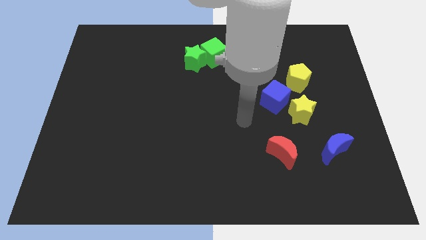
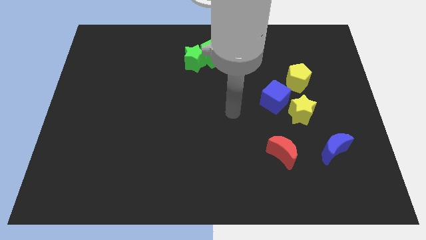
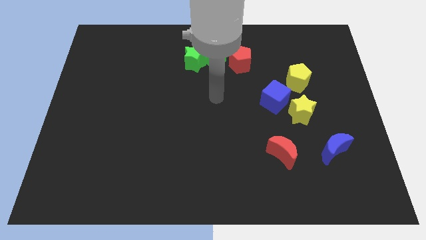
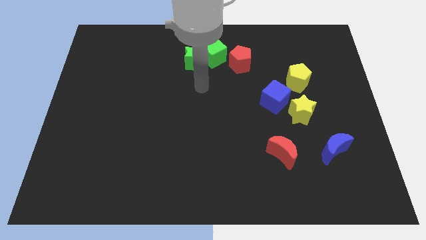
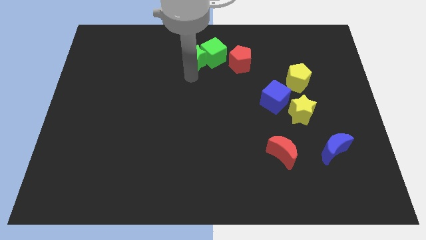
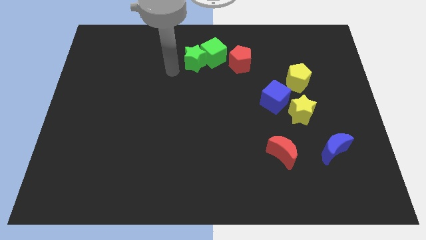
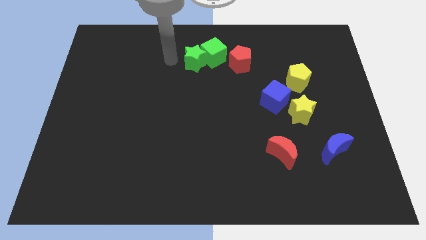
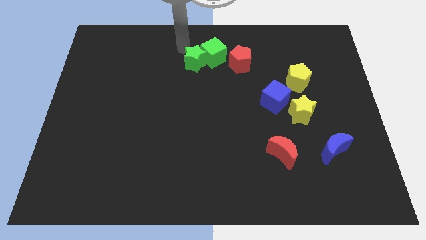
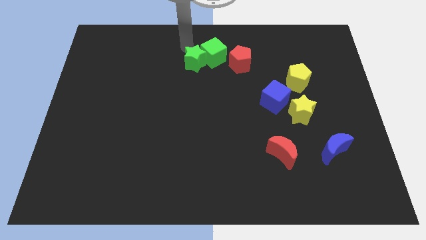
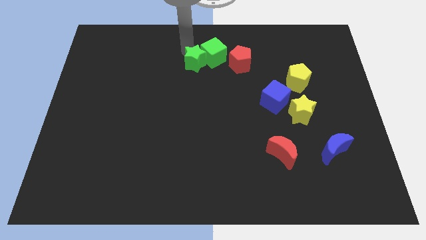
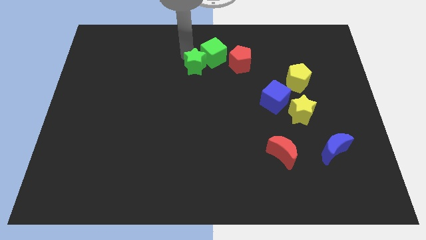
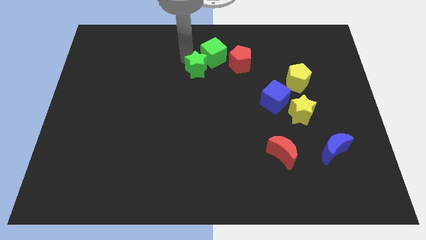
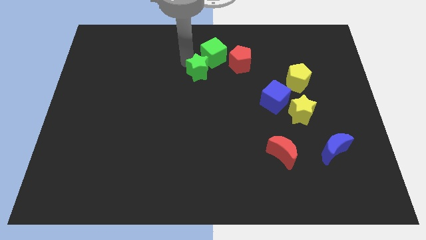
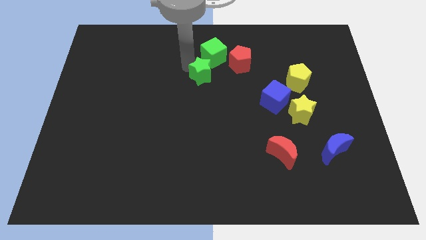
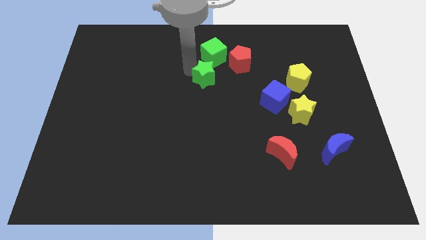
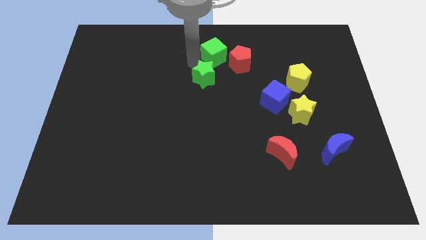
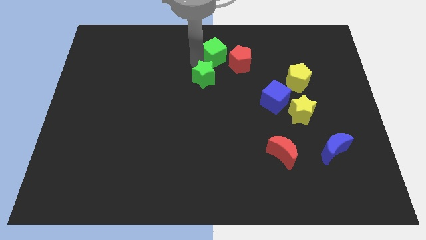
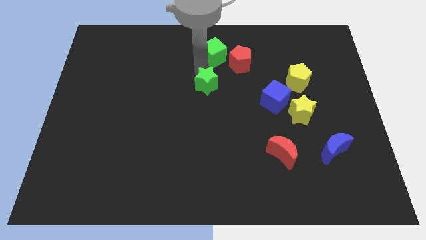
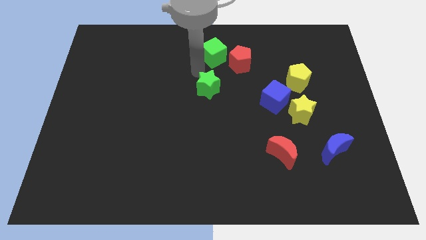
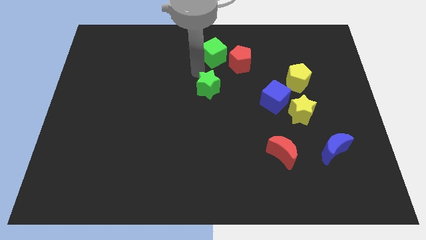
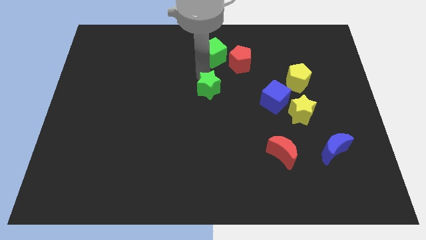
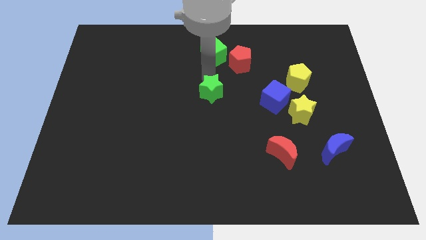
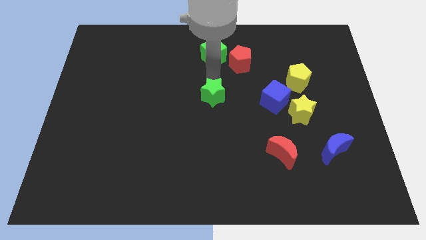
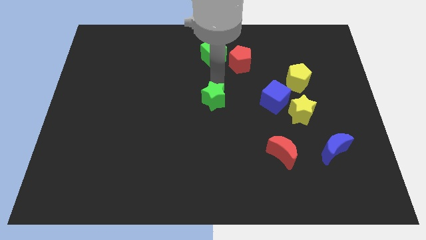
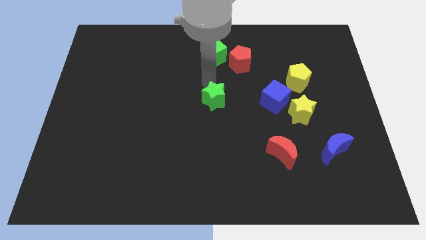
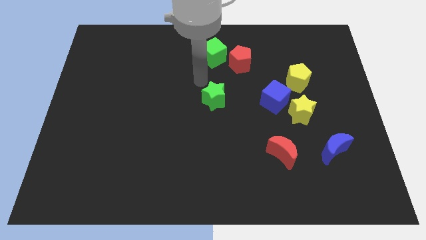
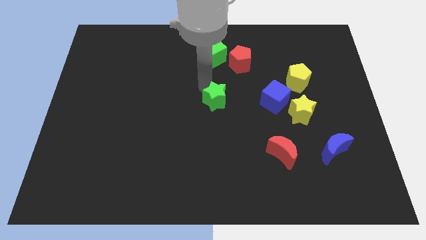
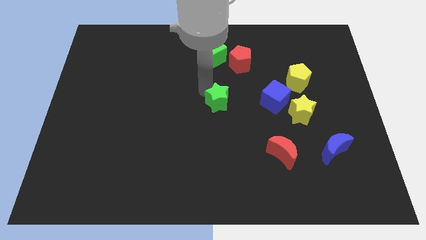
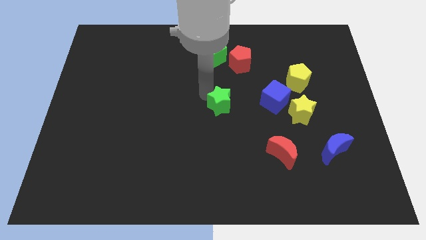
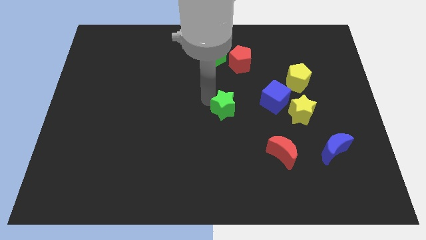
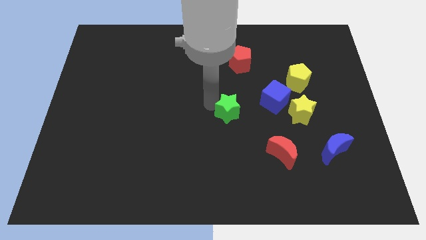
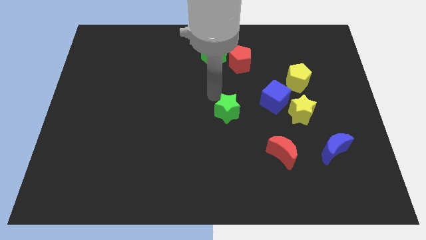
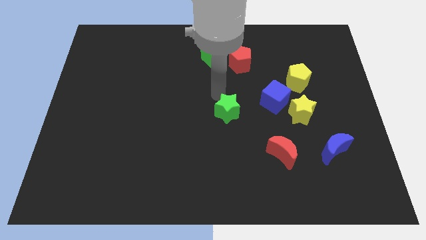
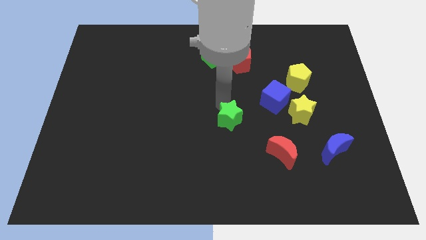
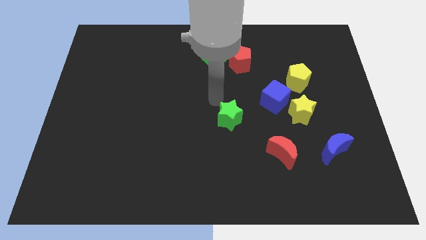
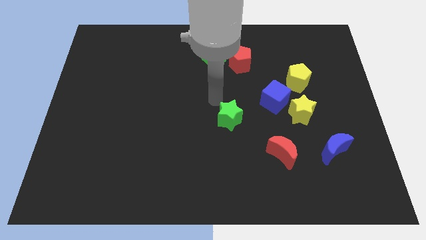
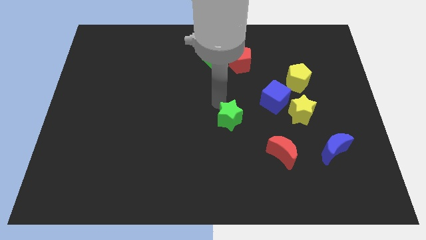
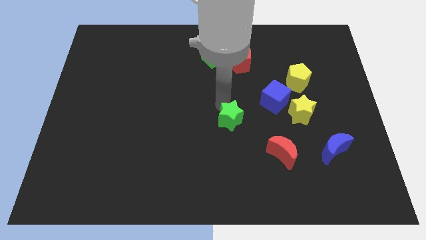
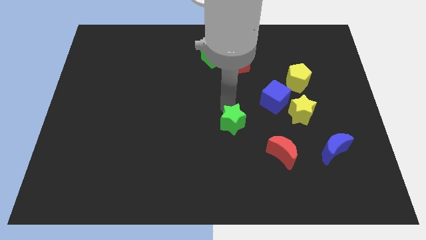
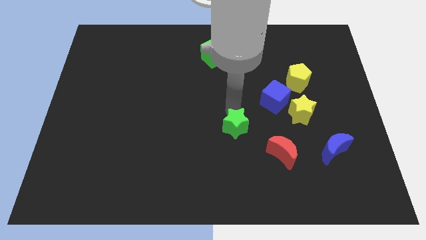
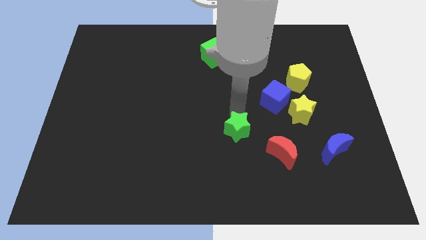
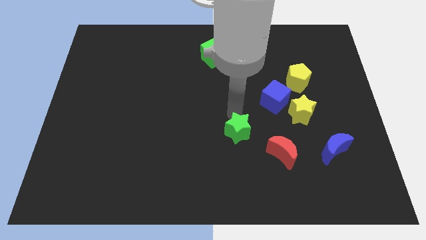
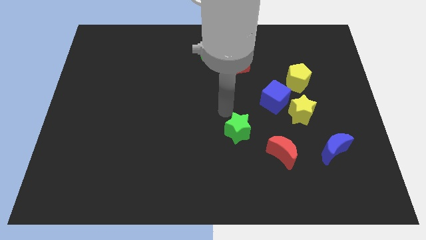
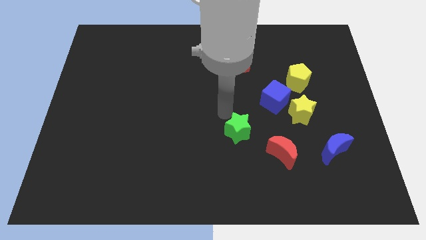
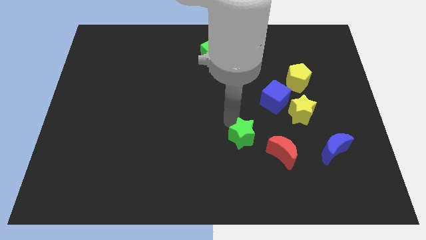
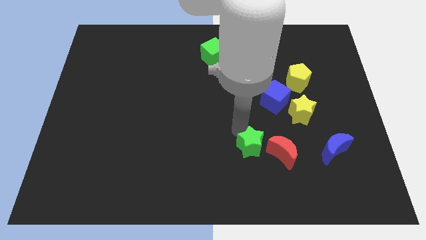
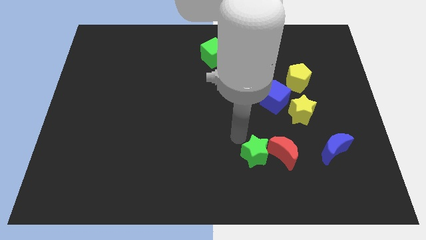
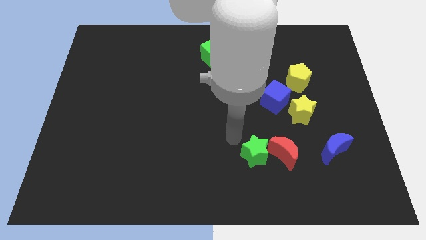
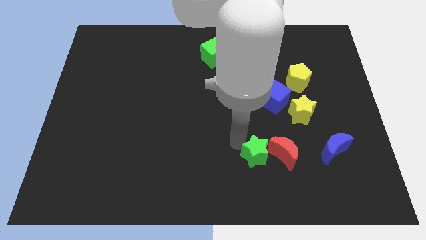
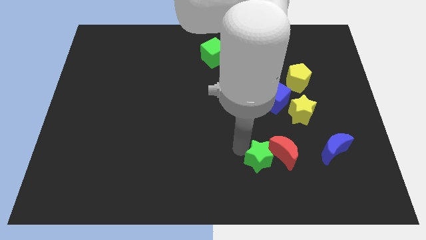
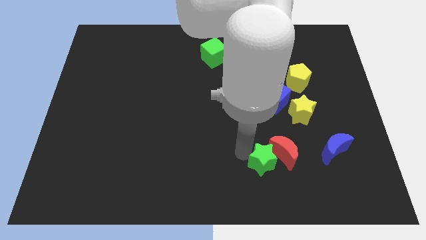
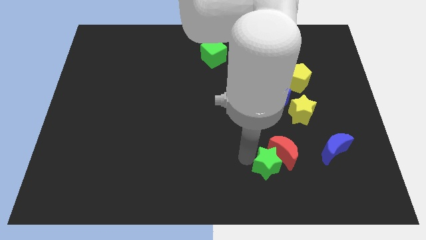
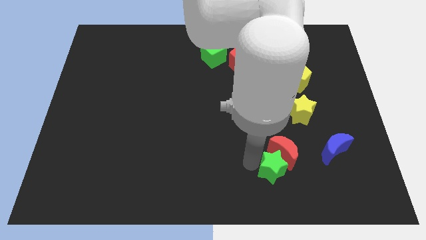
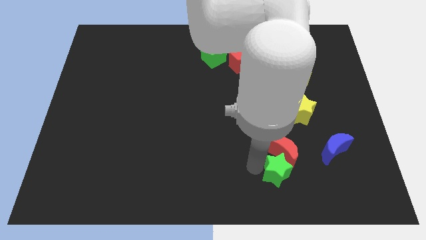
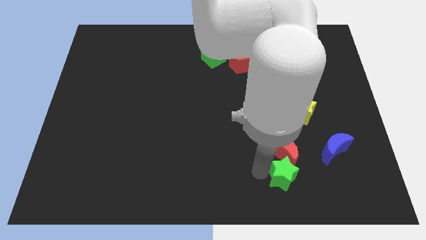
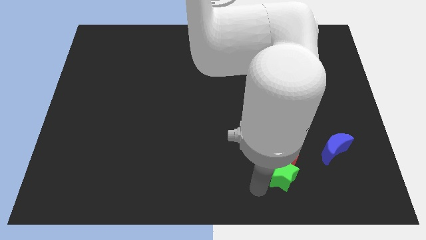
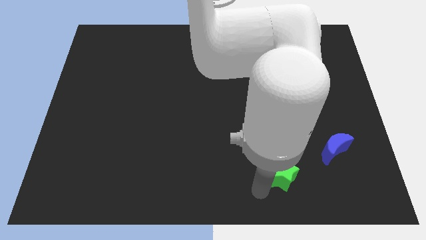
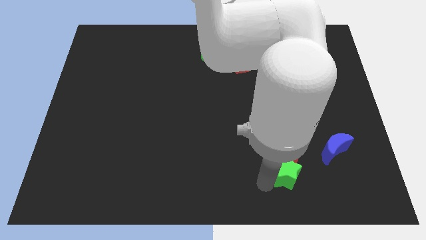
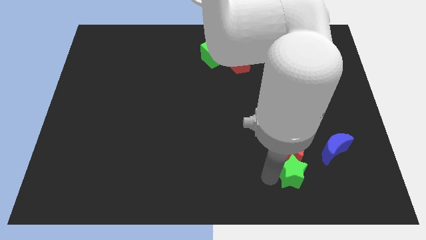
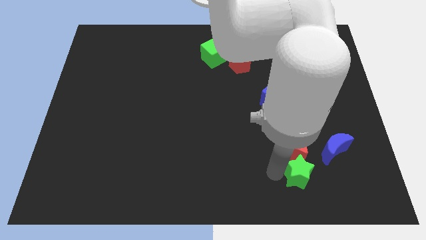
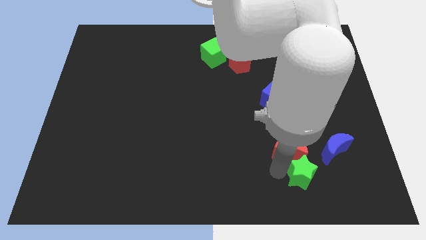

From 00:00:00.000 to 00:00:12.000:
move the green star below the yellow star

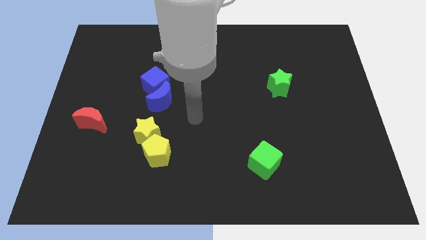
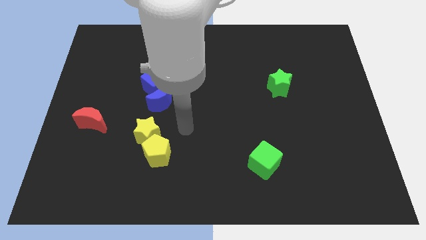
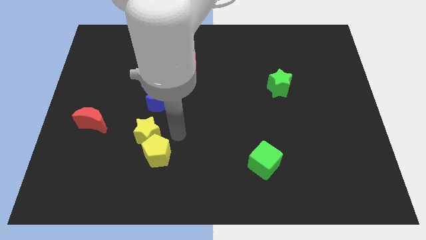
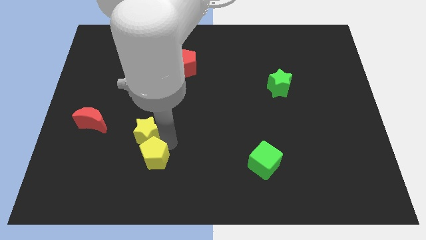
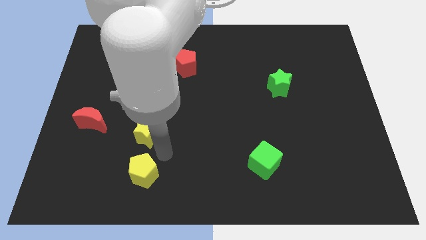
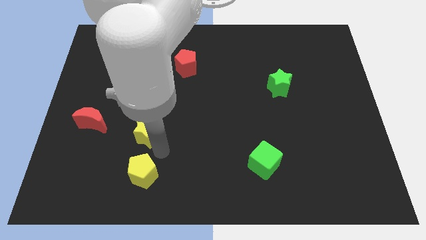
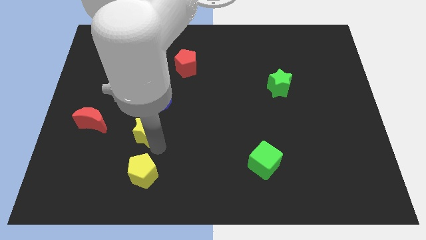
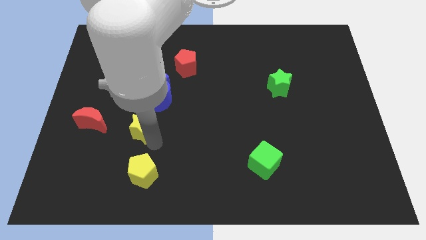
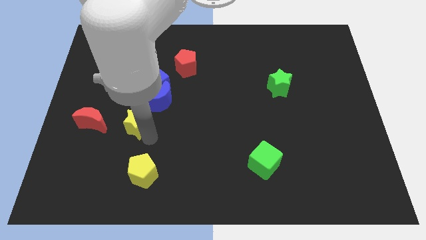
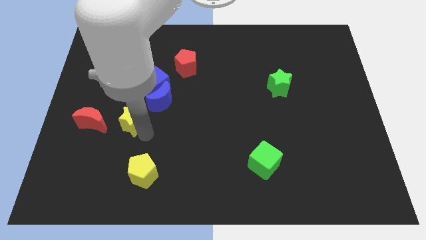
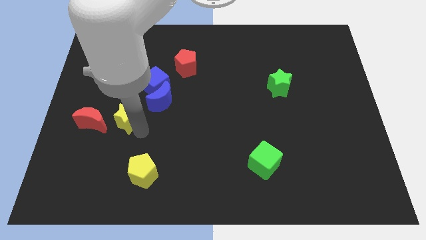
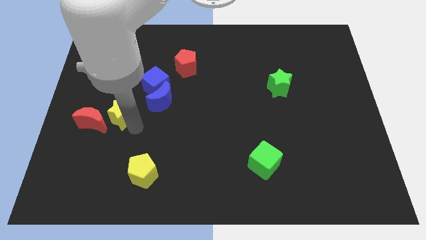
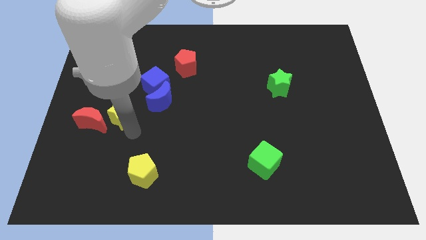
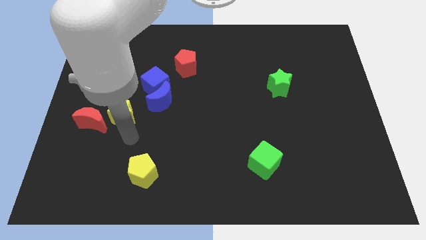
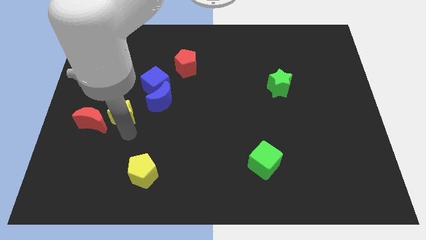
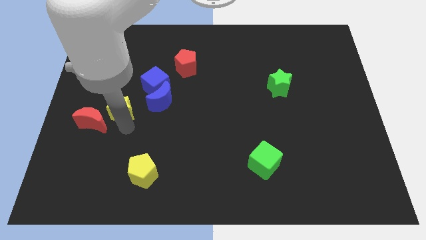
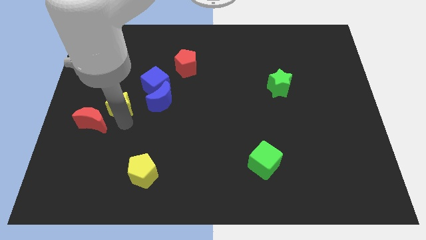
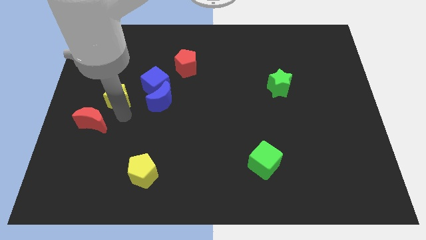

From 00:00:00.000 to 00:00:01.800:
put the yellow star to the top side of the red moon
